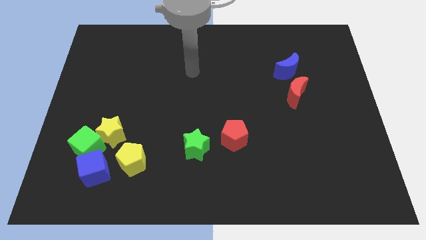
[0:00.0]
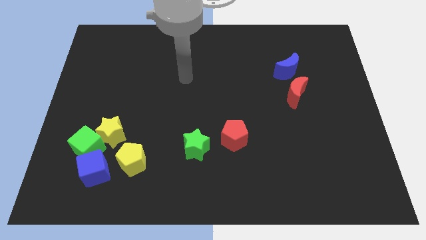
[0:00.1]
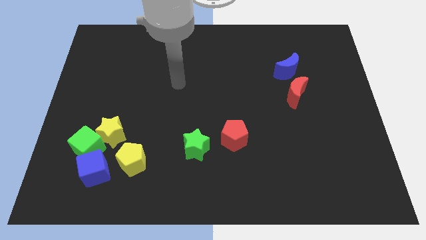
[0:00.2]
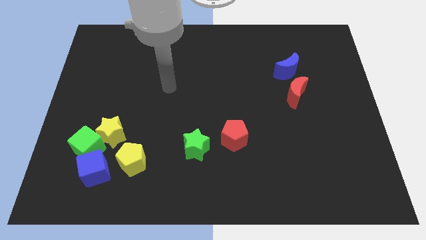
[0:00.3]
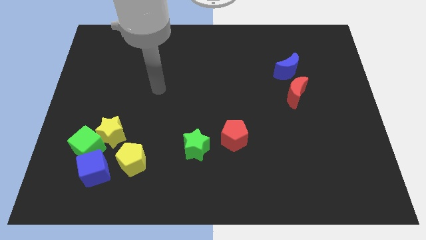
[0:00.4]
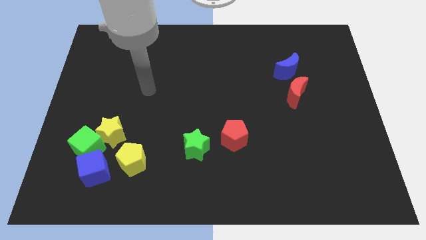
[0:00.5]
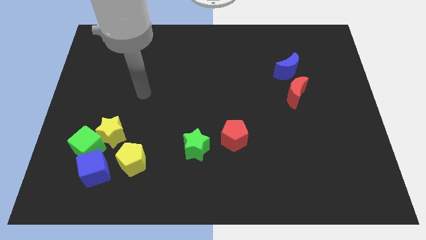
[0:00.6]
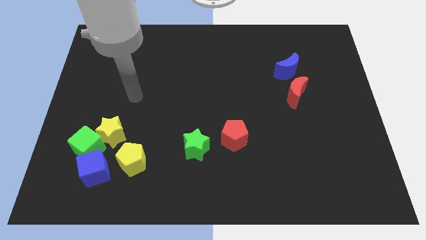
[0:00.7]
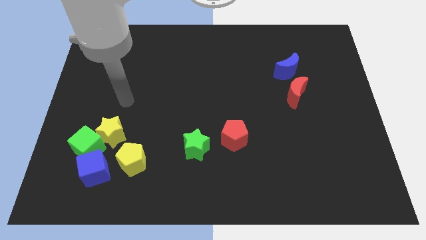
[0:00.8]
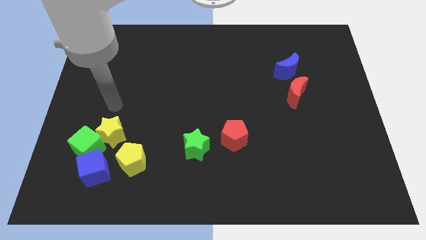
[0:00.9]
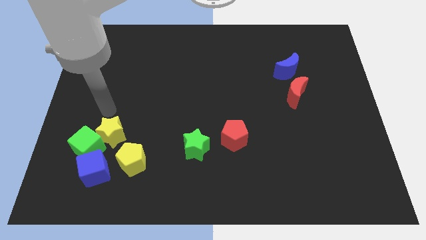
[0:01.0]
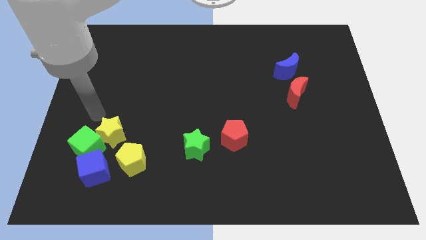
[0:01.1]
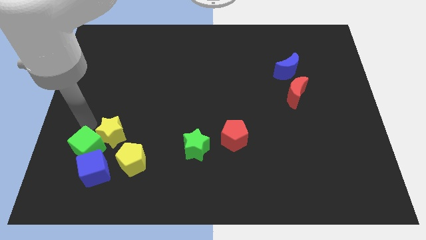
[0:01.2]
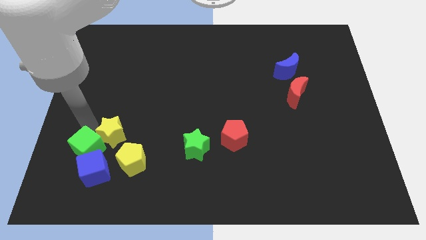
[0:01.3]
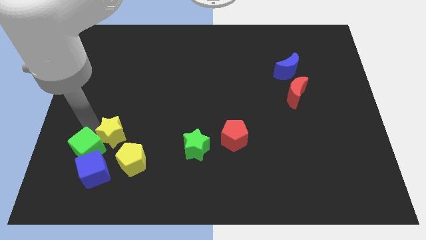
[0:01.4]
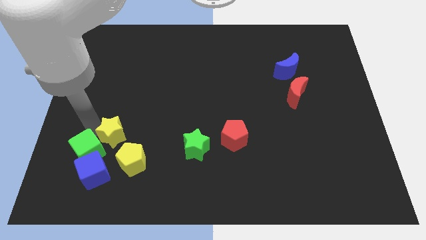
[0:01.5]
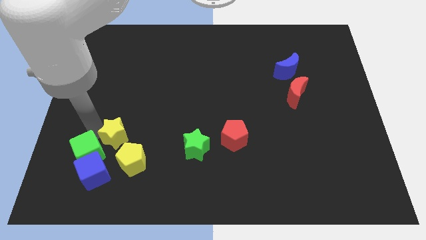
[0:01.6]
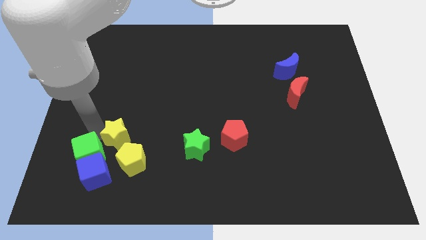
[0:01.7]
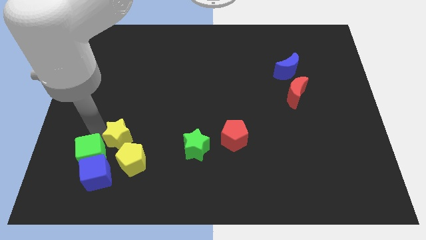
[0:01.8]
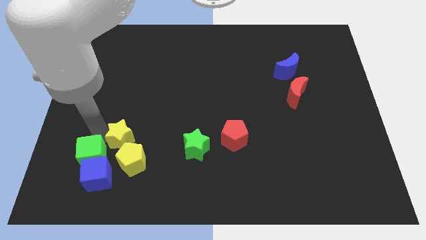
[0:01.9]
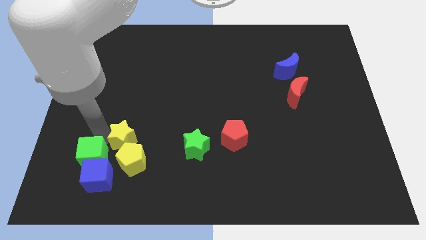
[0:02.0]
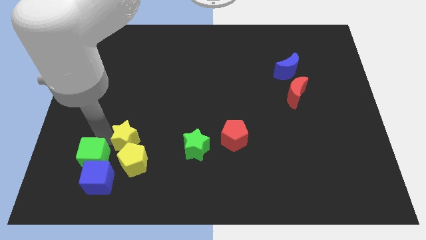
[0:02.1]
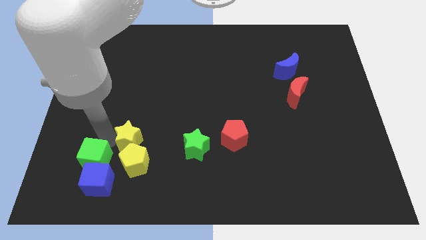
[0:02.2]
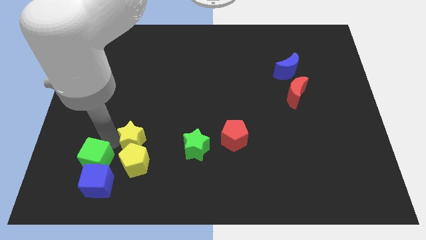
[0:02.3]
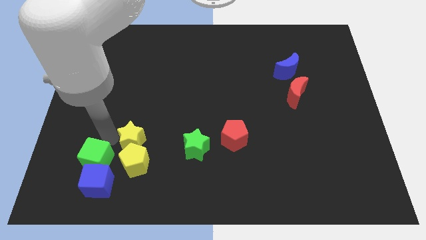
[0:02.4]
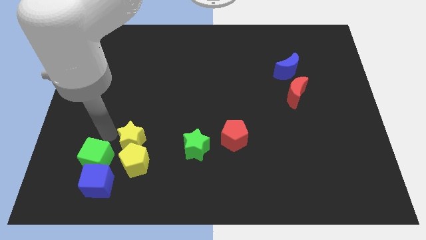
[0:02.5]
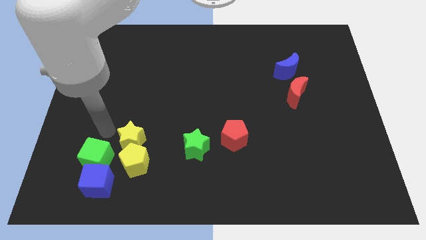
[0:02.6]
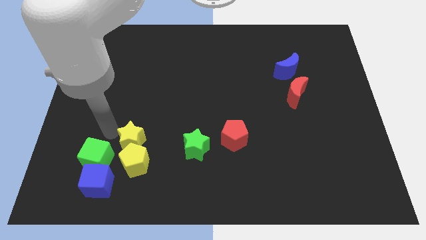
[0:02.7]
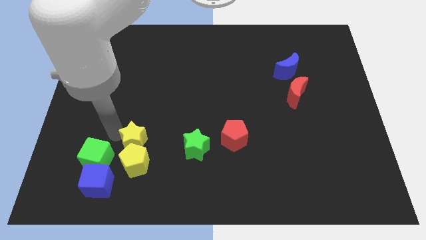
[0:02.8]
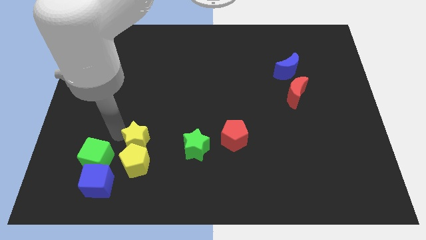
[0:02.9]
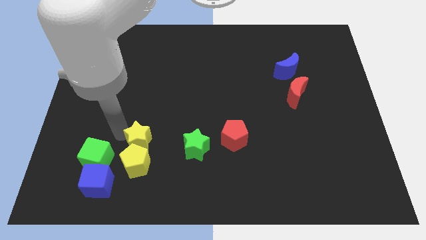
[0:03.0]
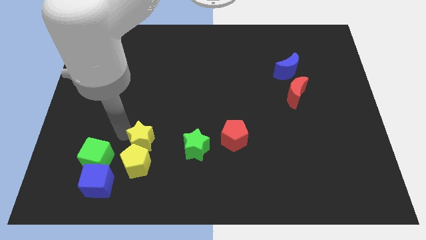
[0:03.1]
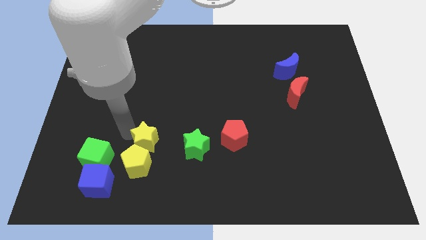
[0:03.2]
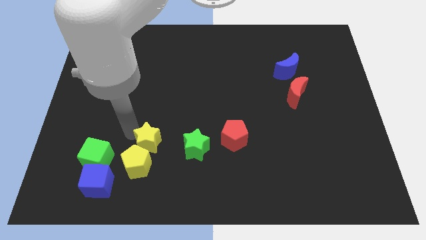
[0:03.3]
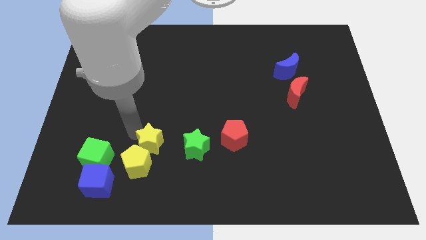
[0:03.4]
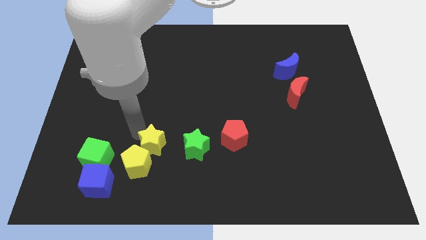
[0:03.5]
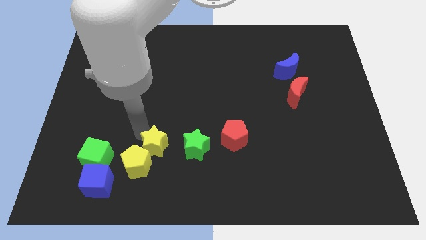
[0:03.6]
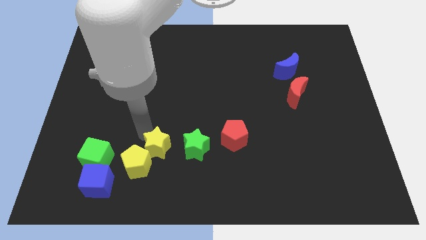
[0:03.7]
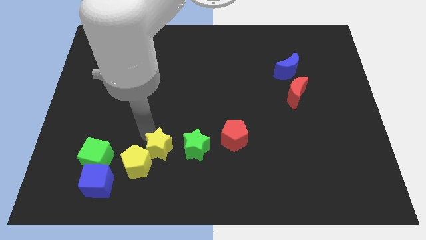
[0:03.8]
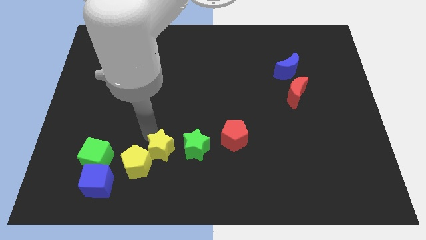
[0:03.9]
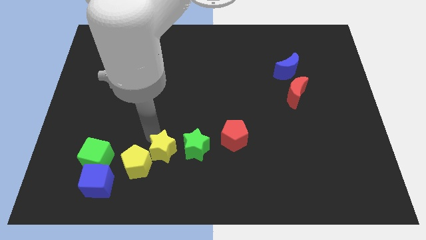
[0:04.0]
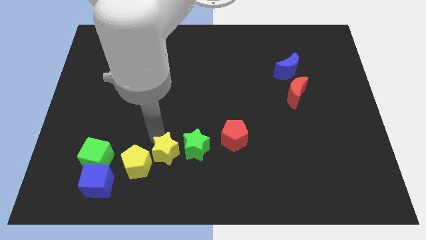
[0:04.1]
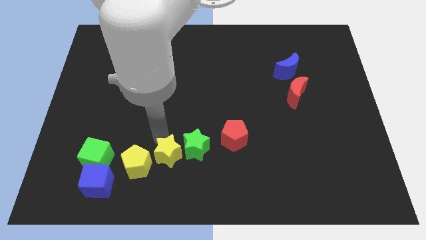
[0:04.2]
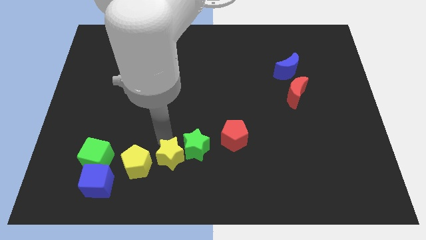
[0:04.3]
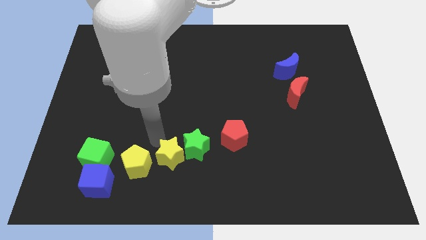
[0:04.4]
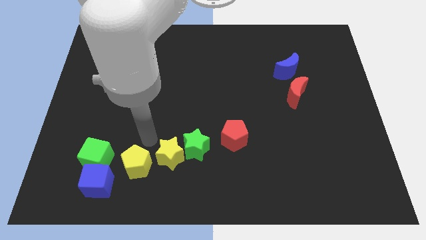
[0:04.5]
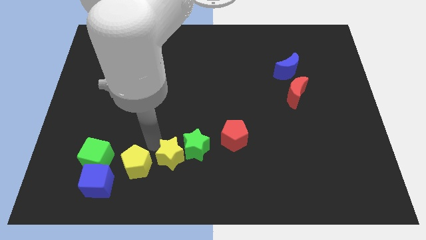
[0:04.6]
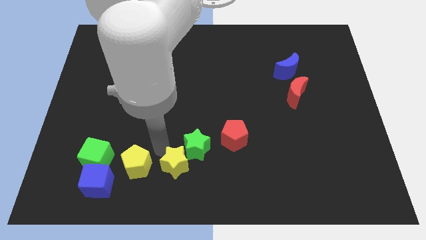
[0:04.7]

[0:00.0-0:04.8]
push the yellow star to the bottom

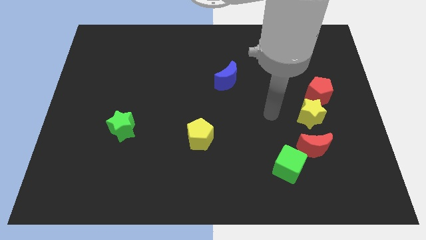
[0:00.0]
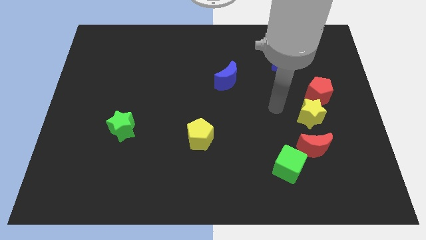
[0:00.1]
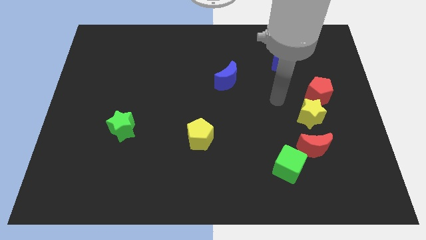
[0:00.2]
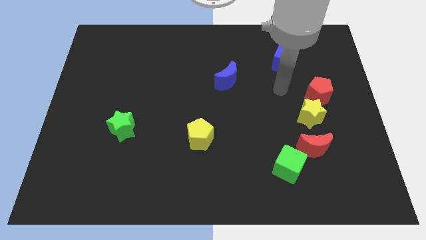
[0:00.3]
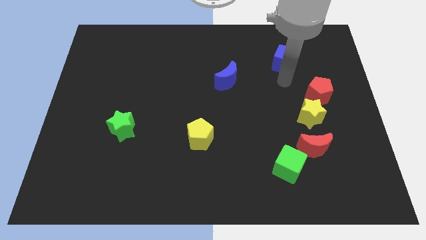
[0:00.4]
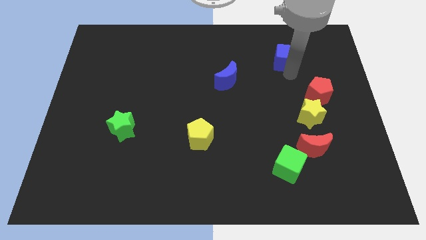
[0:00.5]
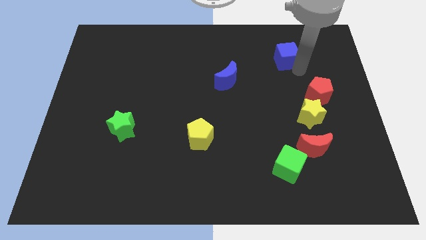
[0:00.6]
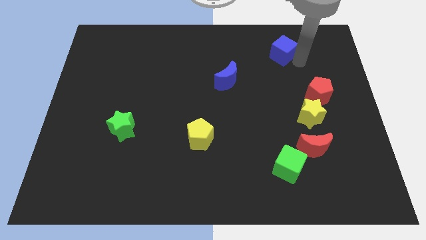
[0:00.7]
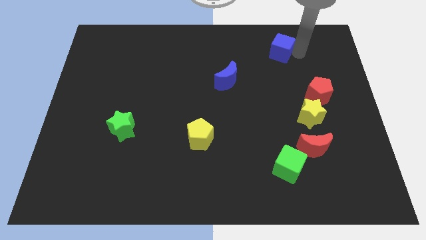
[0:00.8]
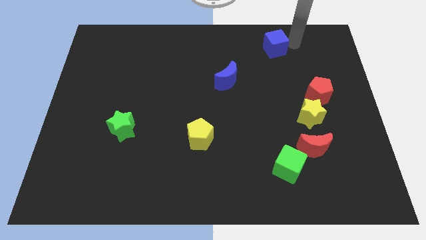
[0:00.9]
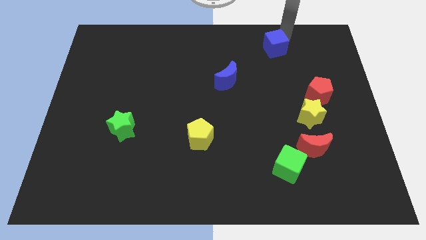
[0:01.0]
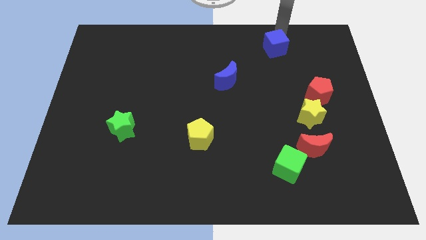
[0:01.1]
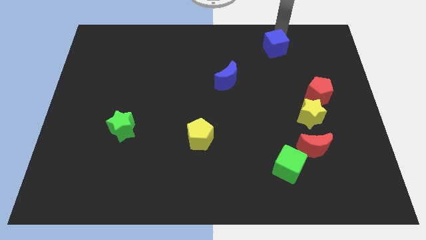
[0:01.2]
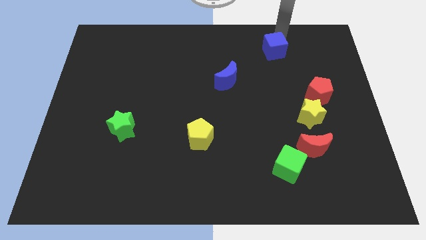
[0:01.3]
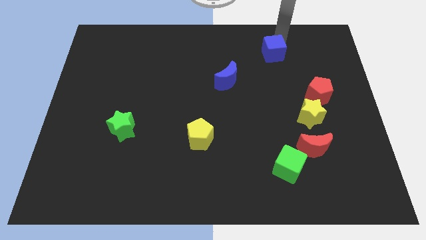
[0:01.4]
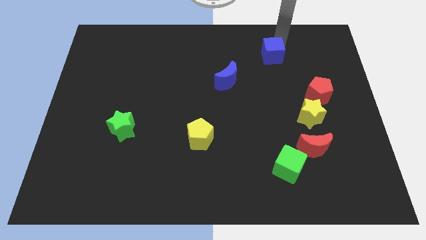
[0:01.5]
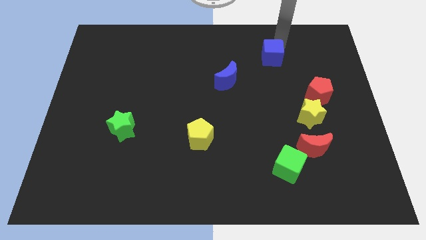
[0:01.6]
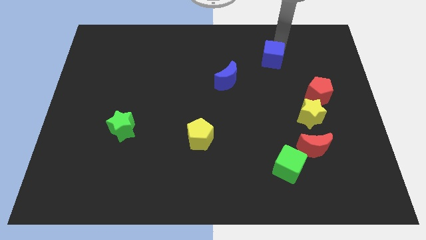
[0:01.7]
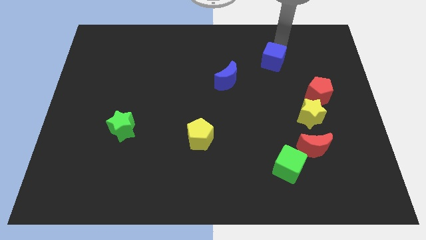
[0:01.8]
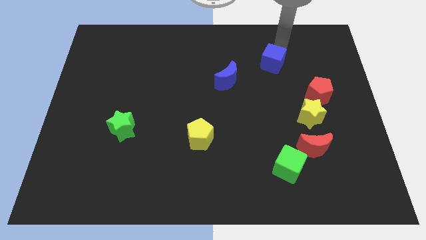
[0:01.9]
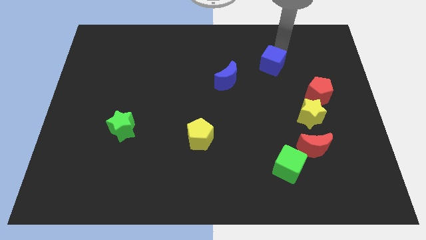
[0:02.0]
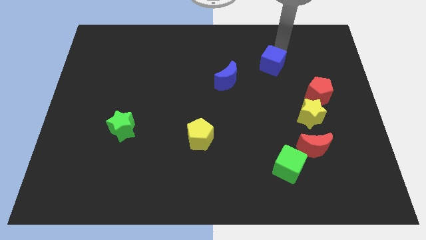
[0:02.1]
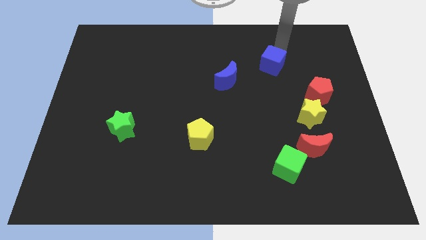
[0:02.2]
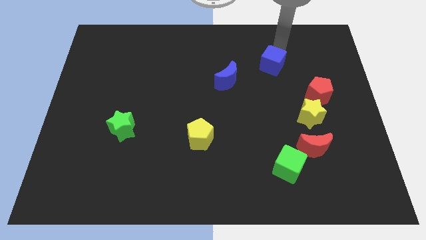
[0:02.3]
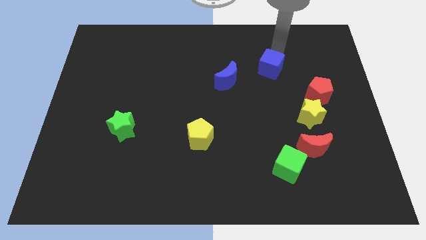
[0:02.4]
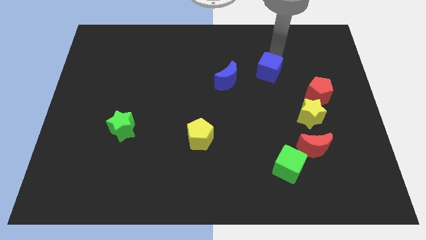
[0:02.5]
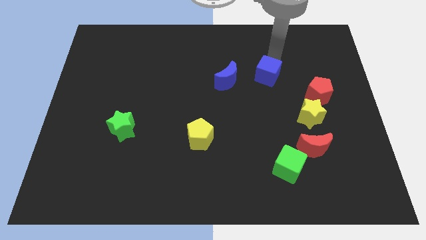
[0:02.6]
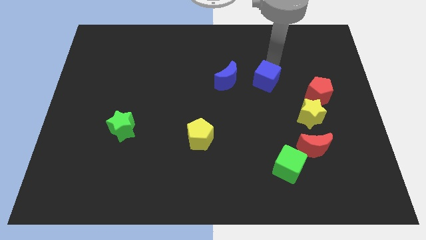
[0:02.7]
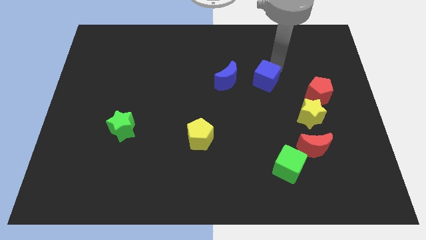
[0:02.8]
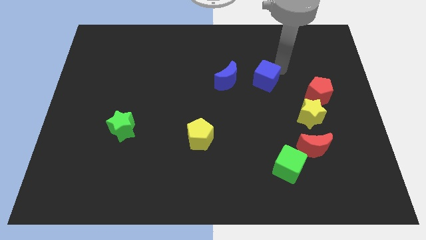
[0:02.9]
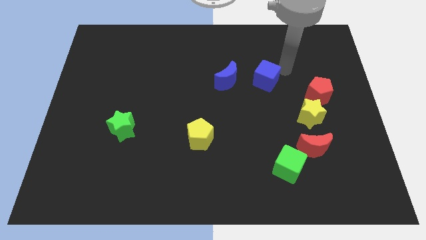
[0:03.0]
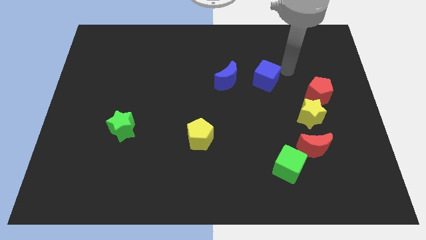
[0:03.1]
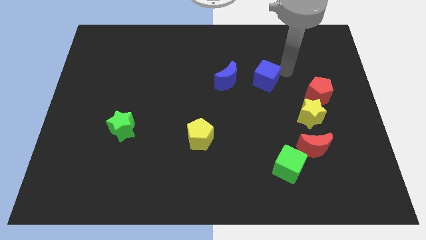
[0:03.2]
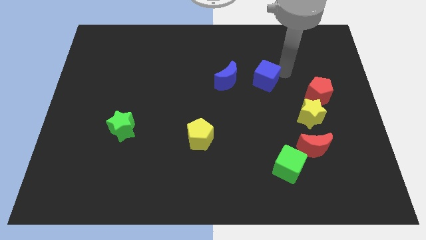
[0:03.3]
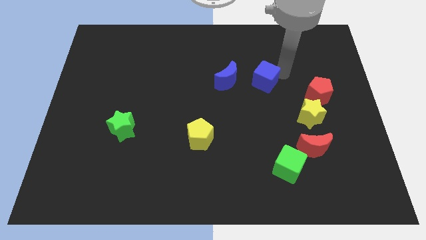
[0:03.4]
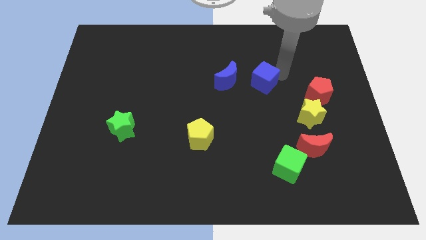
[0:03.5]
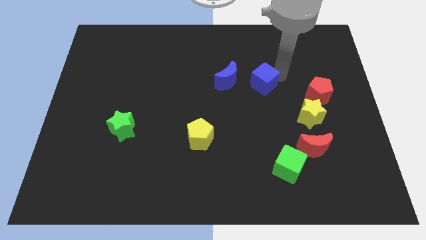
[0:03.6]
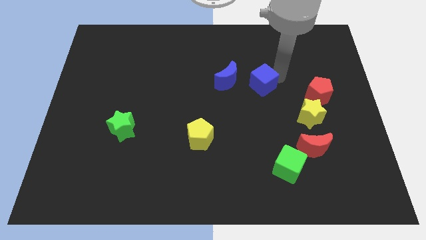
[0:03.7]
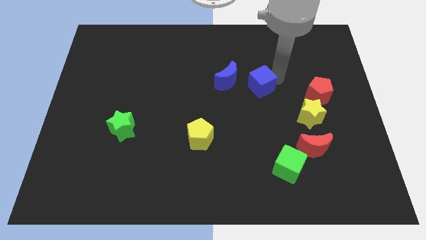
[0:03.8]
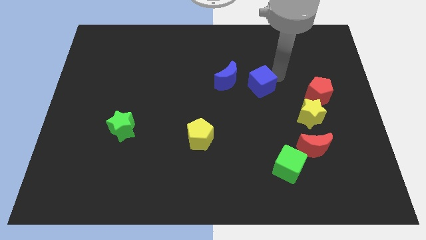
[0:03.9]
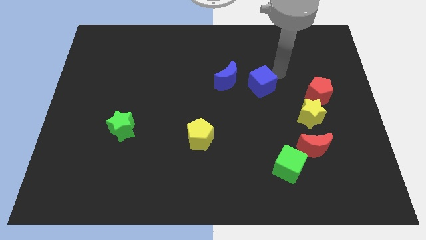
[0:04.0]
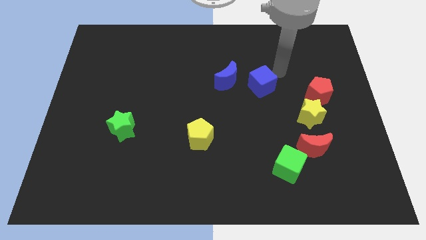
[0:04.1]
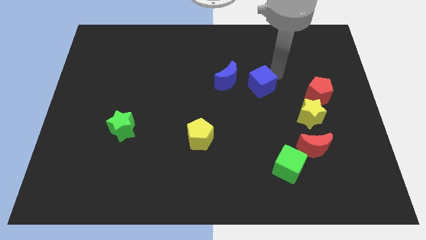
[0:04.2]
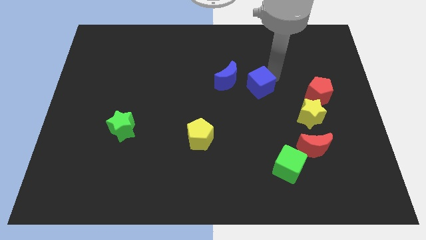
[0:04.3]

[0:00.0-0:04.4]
push the blue cube to the middle
